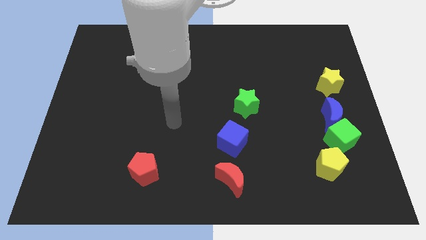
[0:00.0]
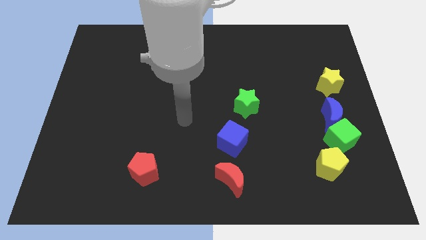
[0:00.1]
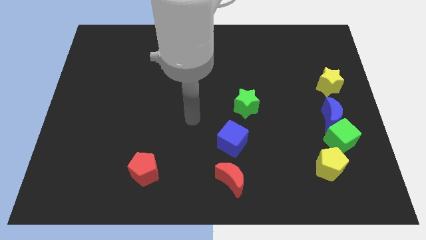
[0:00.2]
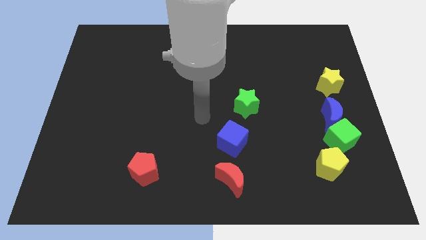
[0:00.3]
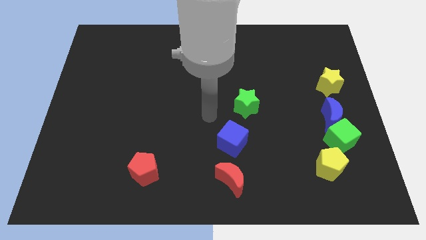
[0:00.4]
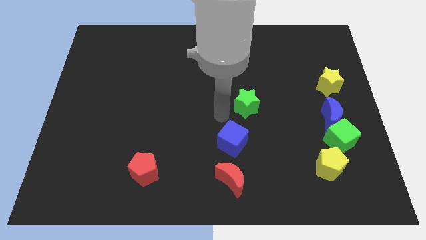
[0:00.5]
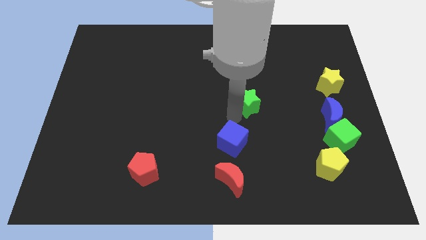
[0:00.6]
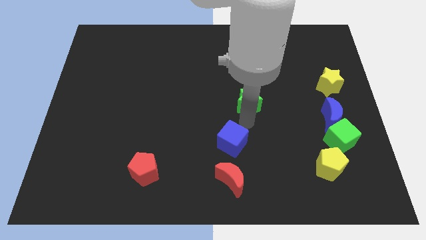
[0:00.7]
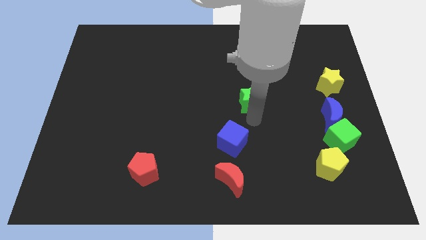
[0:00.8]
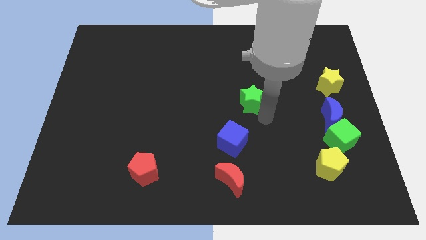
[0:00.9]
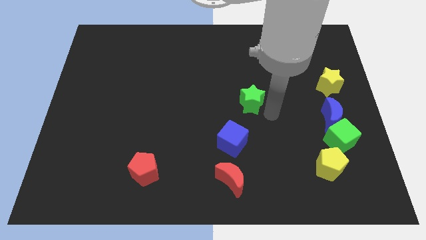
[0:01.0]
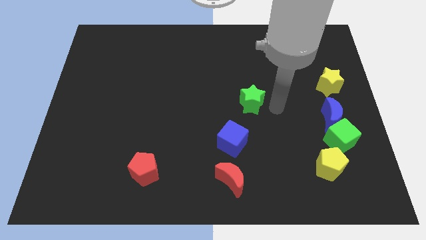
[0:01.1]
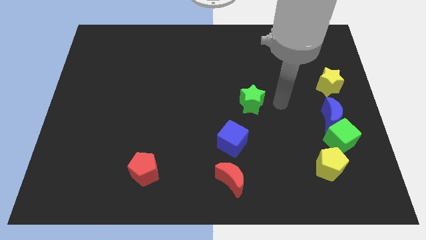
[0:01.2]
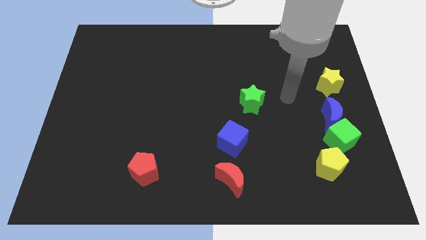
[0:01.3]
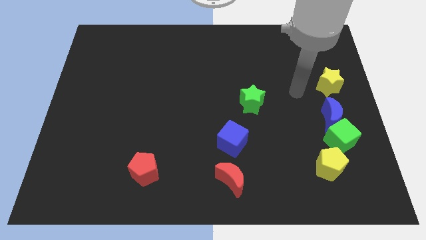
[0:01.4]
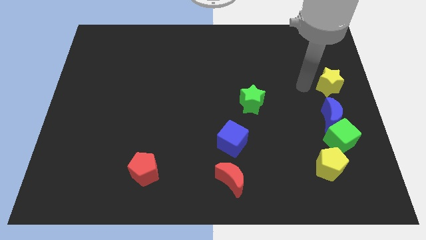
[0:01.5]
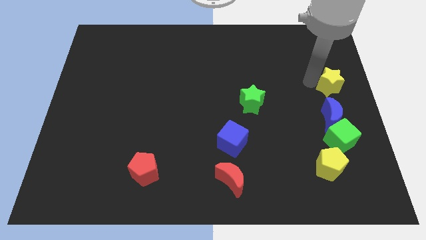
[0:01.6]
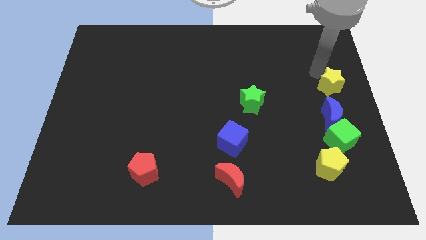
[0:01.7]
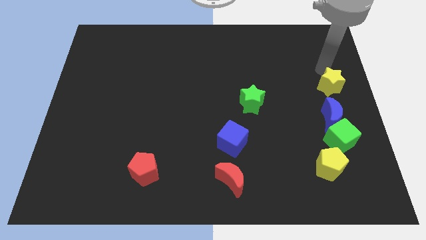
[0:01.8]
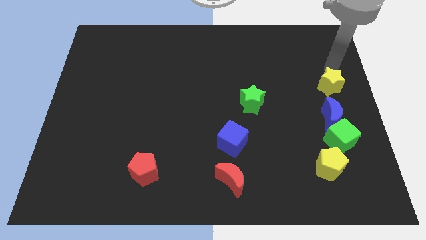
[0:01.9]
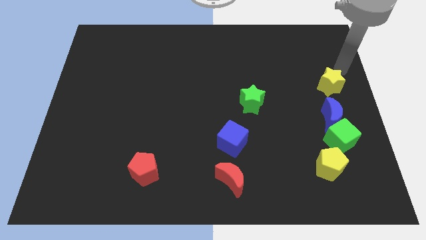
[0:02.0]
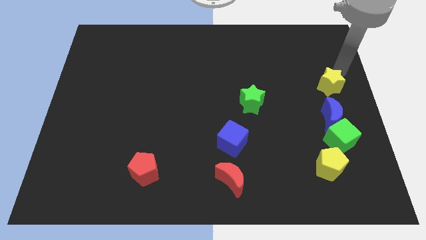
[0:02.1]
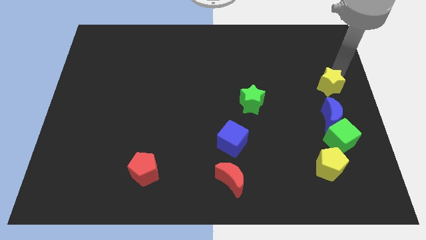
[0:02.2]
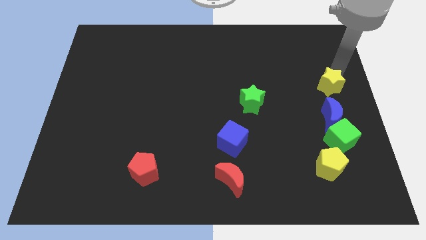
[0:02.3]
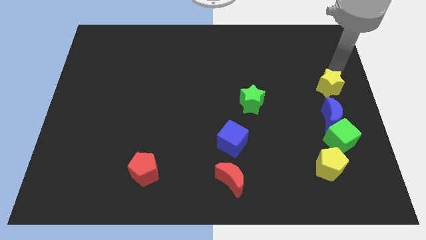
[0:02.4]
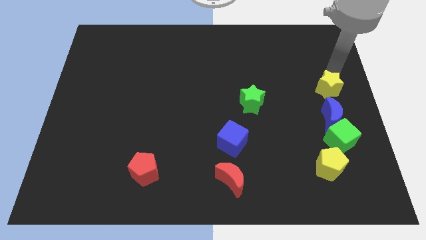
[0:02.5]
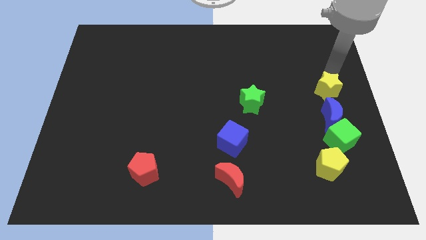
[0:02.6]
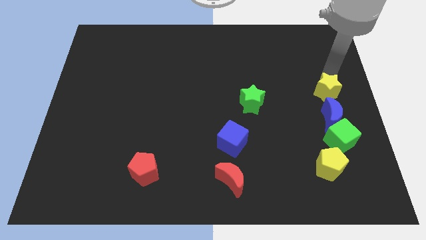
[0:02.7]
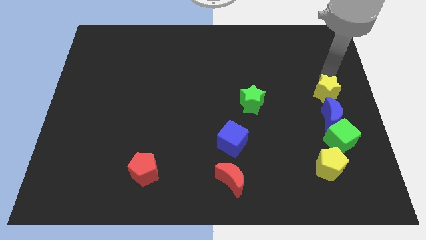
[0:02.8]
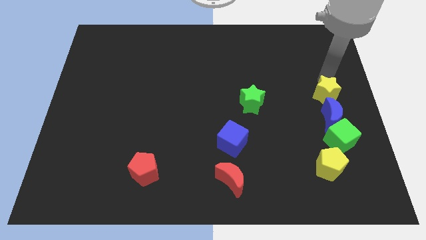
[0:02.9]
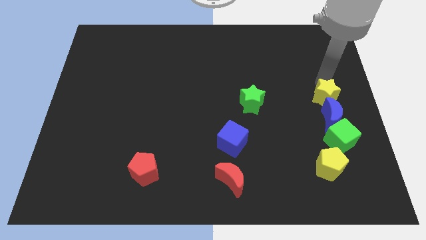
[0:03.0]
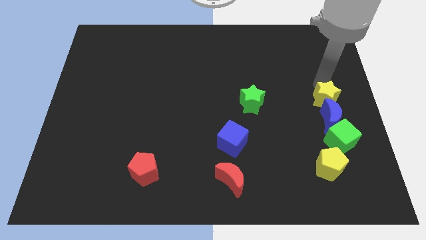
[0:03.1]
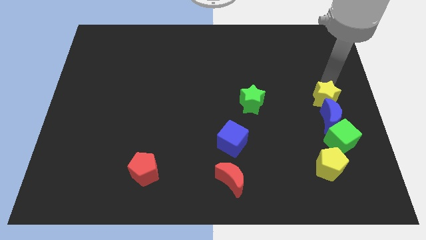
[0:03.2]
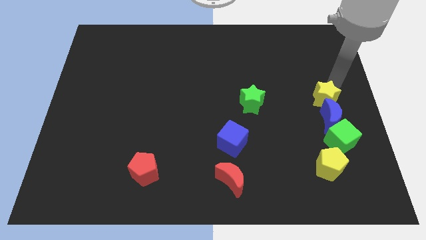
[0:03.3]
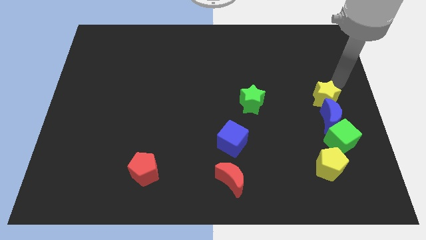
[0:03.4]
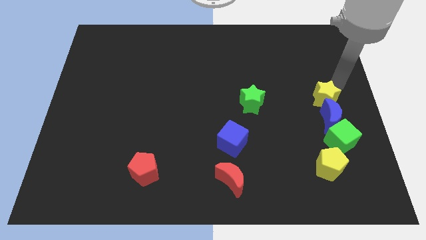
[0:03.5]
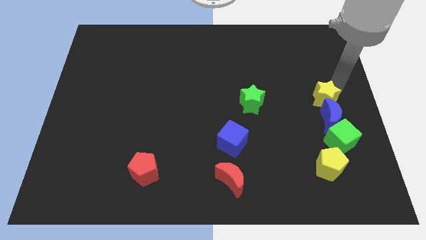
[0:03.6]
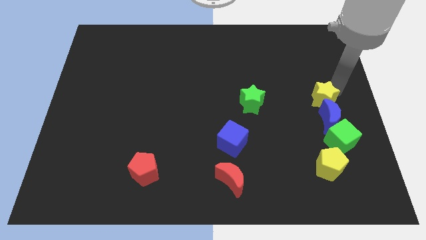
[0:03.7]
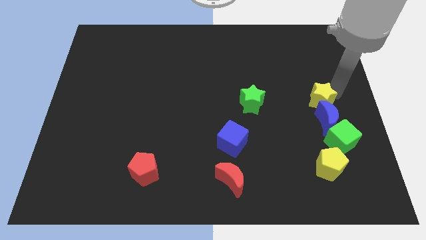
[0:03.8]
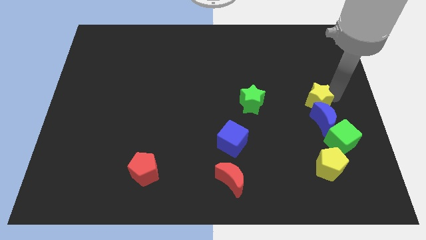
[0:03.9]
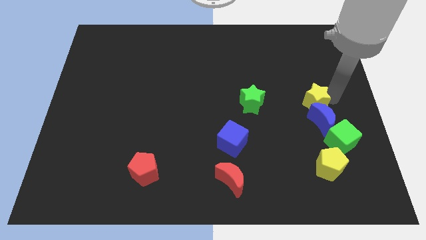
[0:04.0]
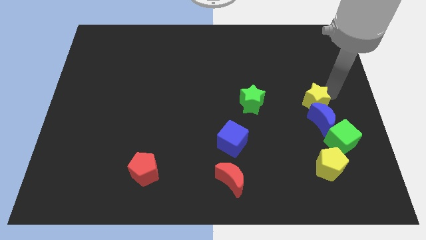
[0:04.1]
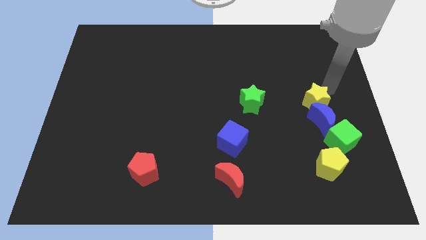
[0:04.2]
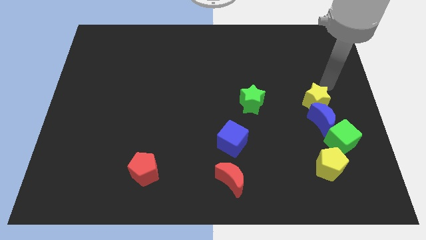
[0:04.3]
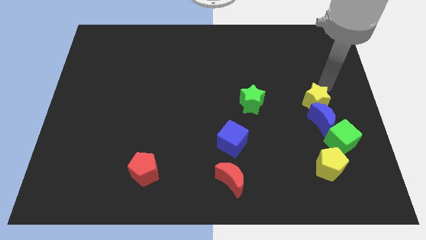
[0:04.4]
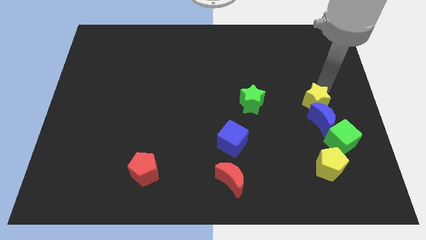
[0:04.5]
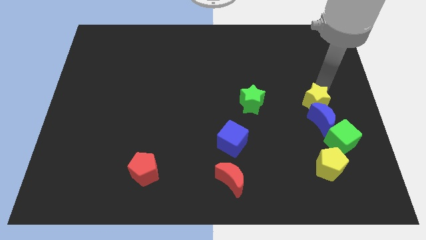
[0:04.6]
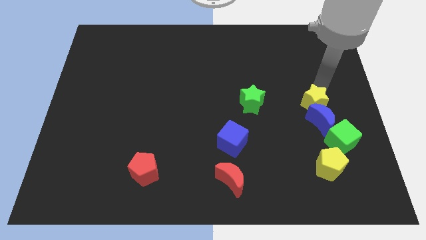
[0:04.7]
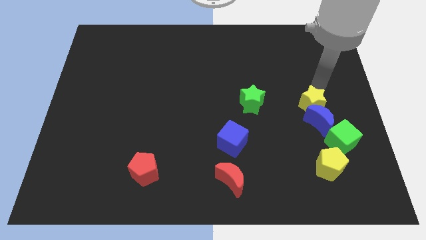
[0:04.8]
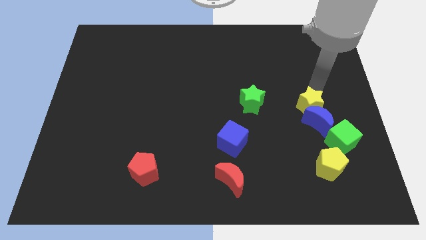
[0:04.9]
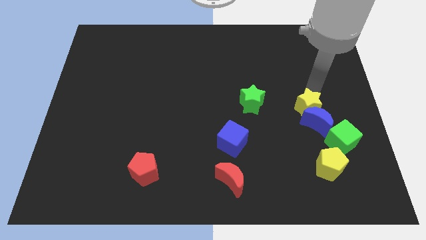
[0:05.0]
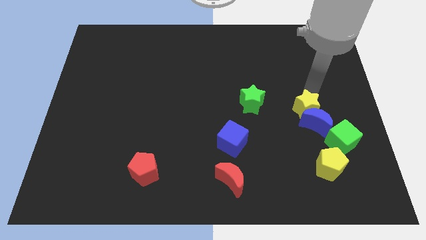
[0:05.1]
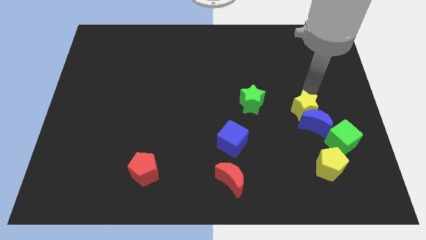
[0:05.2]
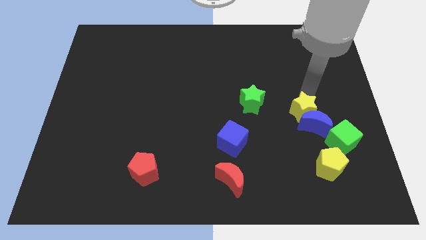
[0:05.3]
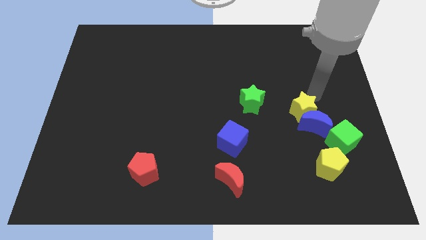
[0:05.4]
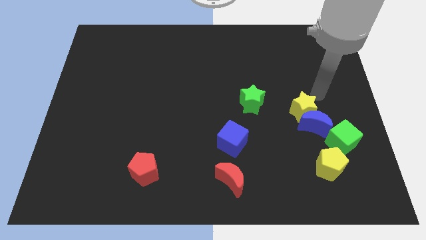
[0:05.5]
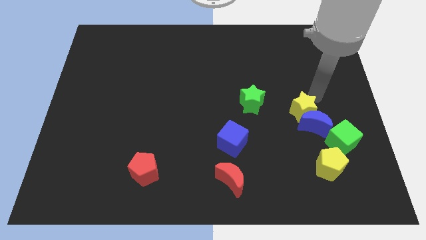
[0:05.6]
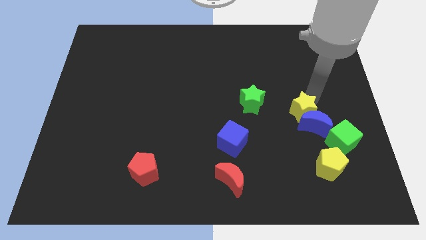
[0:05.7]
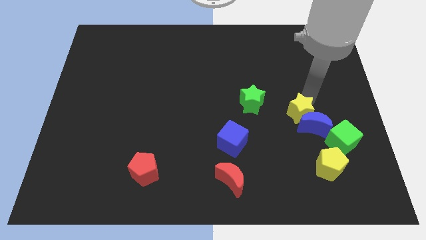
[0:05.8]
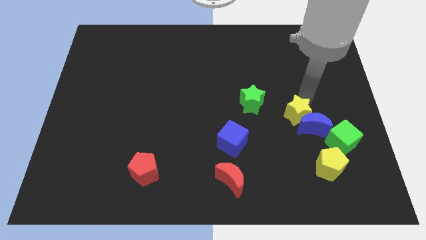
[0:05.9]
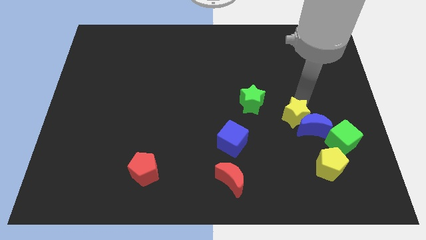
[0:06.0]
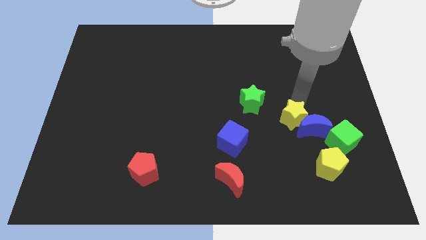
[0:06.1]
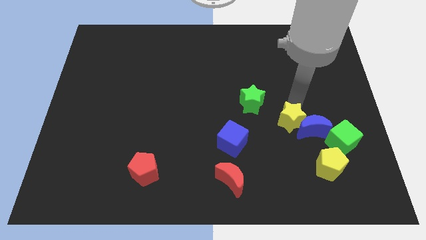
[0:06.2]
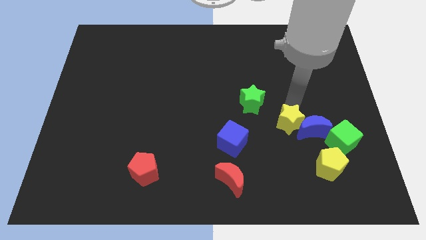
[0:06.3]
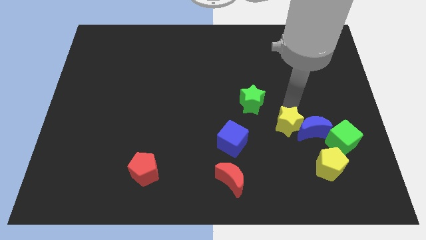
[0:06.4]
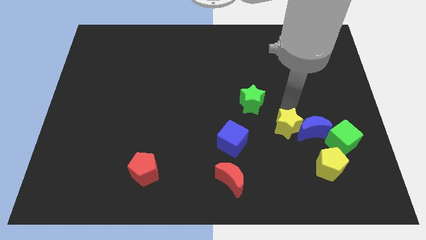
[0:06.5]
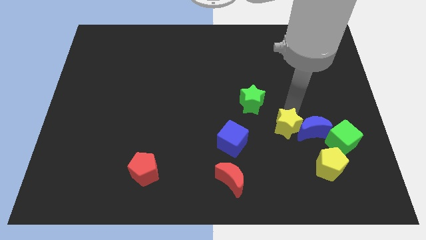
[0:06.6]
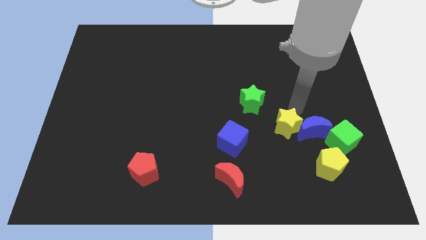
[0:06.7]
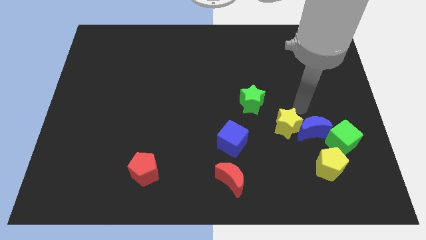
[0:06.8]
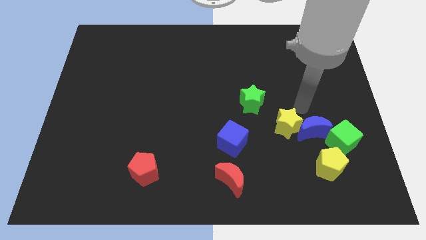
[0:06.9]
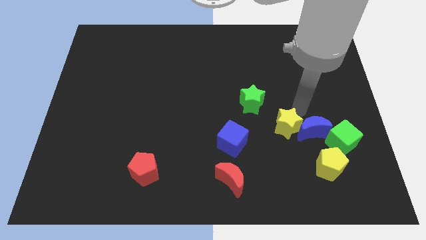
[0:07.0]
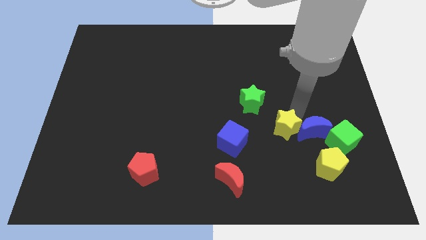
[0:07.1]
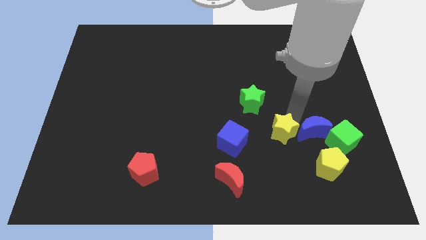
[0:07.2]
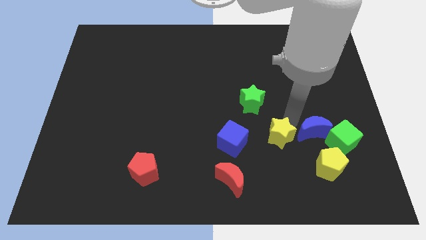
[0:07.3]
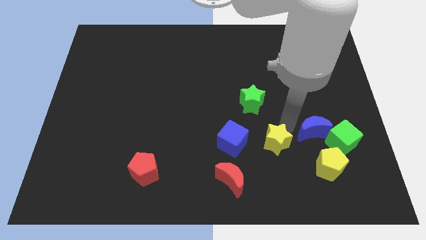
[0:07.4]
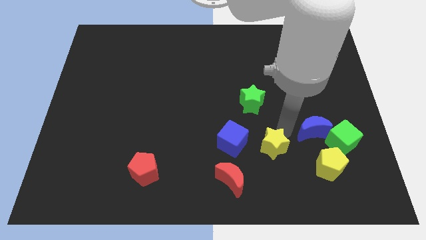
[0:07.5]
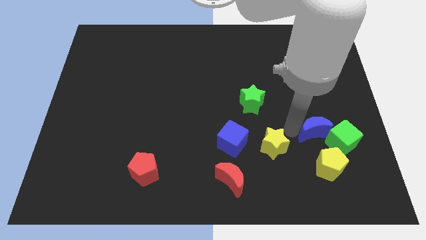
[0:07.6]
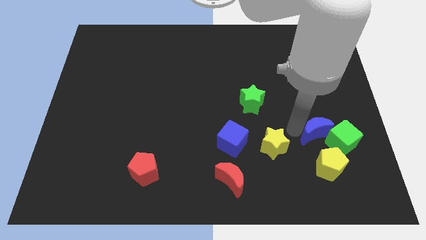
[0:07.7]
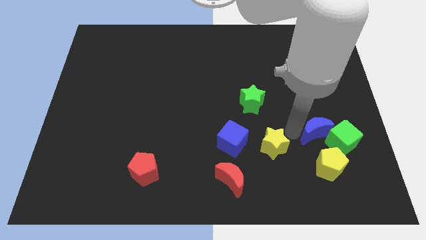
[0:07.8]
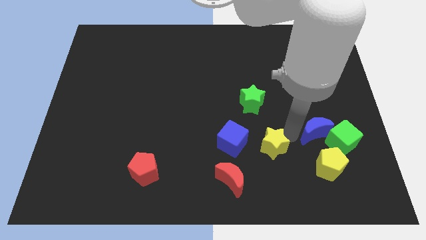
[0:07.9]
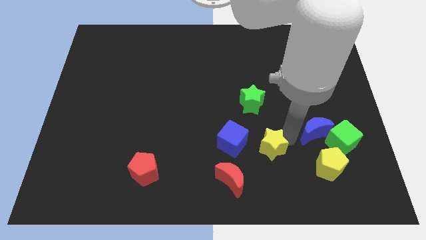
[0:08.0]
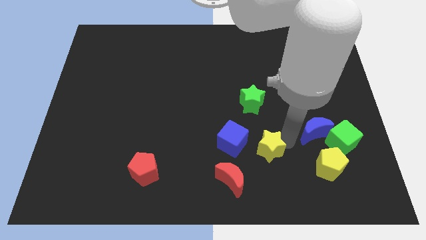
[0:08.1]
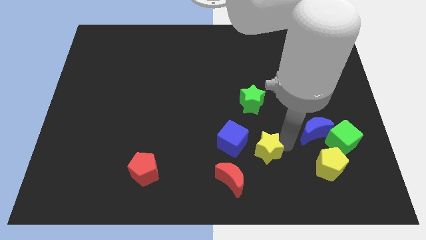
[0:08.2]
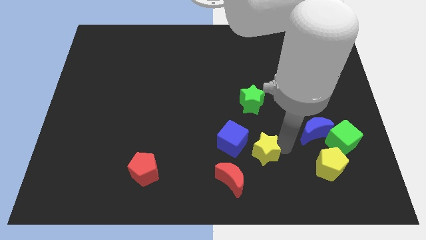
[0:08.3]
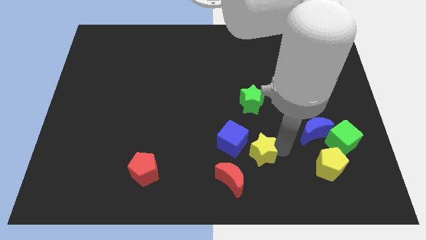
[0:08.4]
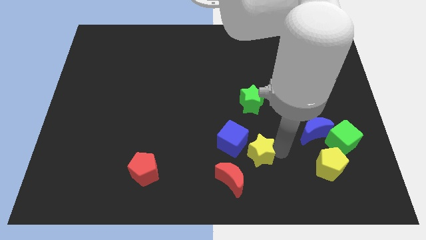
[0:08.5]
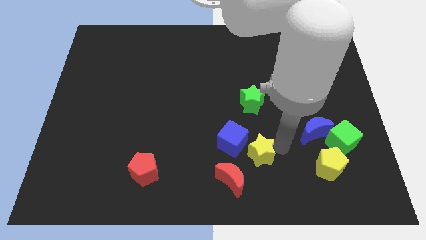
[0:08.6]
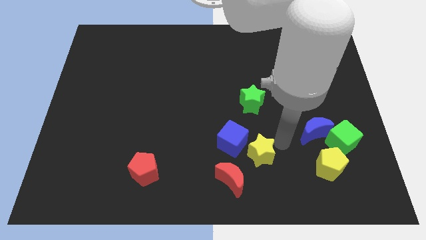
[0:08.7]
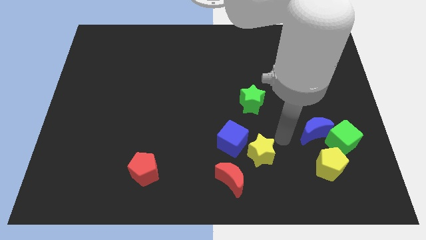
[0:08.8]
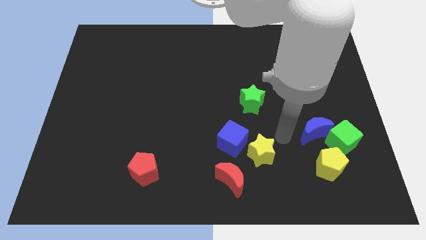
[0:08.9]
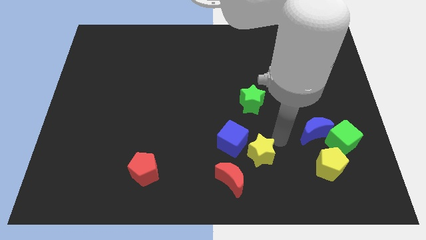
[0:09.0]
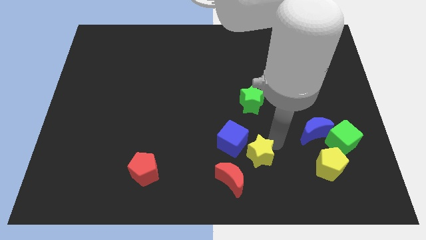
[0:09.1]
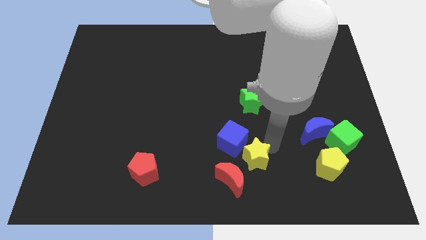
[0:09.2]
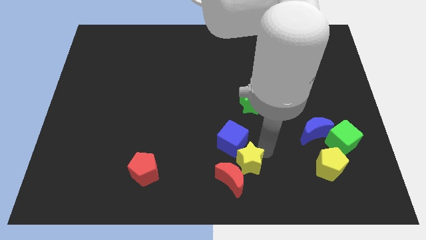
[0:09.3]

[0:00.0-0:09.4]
slide the yellow star next to the red moon
